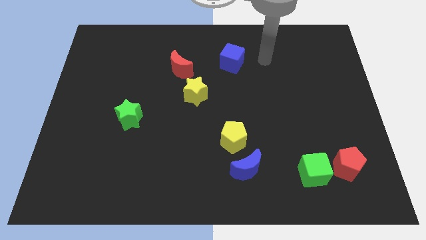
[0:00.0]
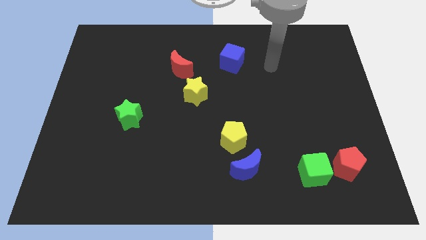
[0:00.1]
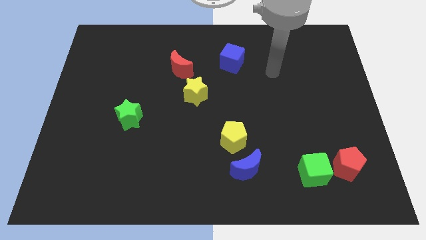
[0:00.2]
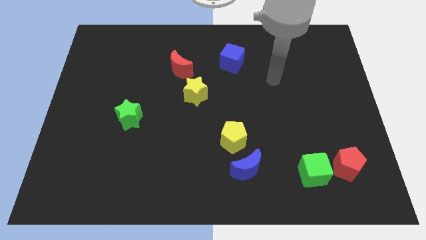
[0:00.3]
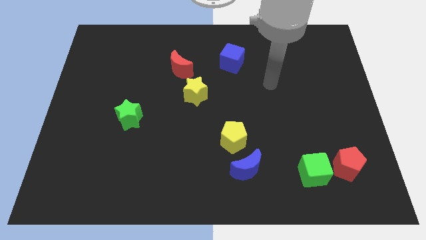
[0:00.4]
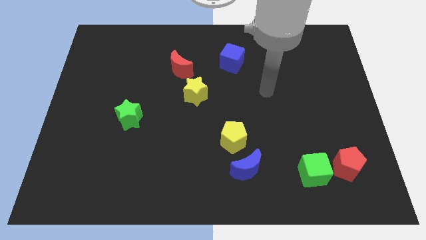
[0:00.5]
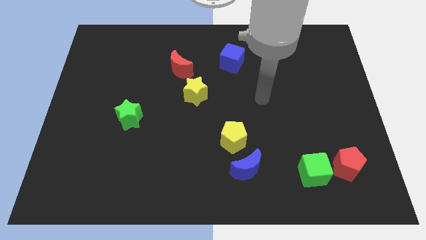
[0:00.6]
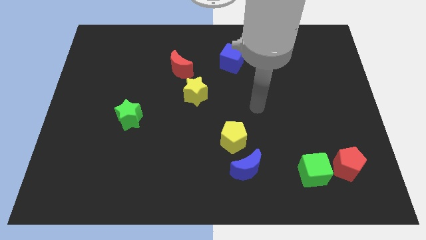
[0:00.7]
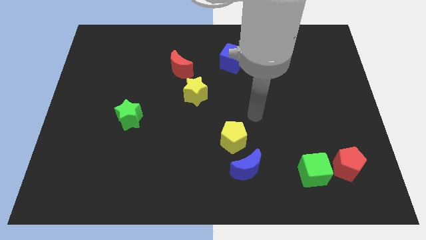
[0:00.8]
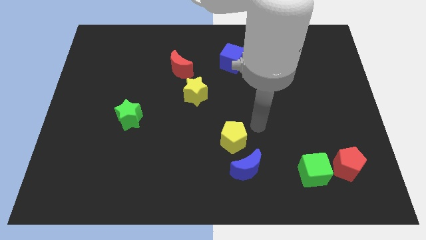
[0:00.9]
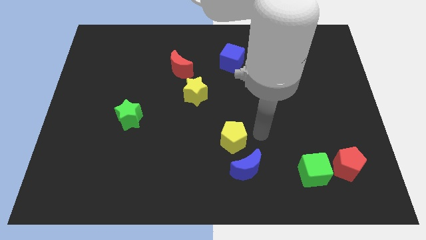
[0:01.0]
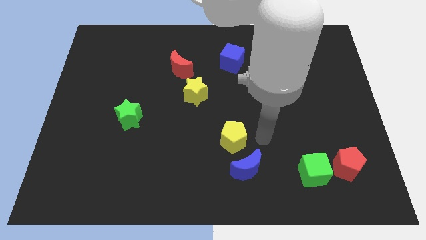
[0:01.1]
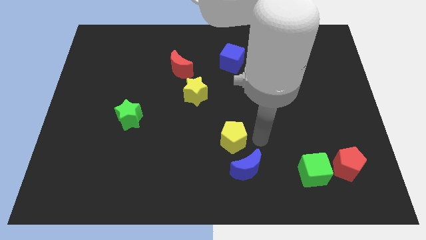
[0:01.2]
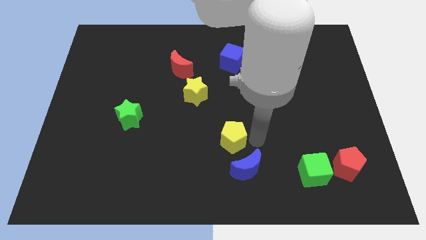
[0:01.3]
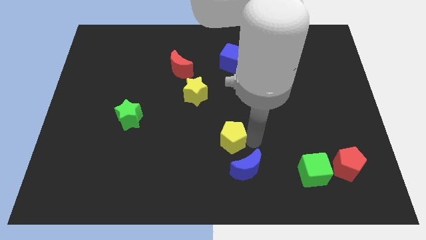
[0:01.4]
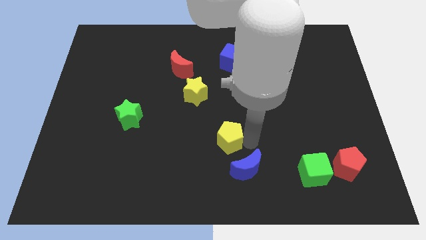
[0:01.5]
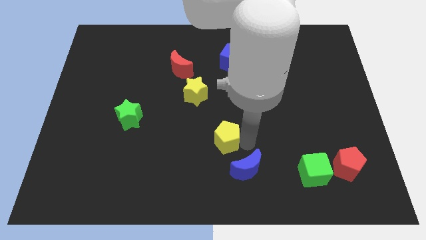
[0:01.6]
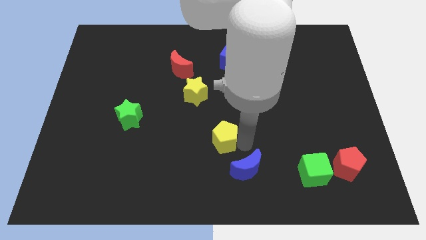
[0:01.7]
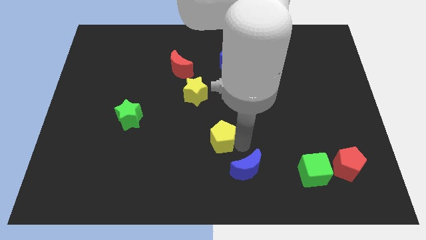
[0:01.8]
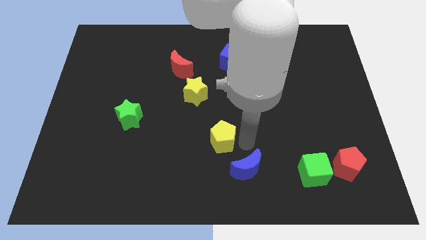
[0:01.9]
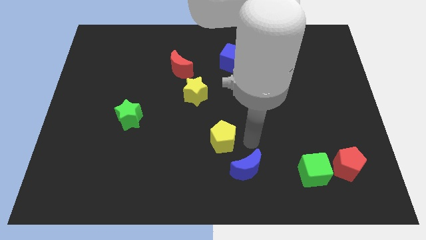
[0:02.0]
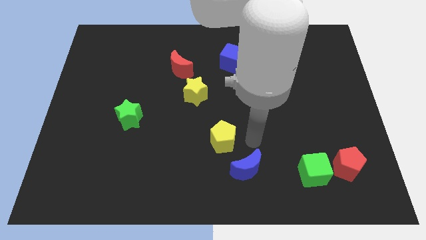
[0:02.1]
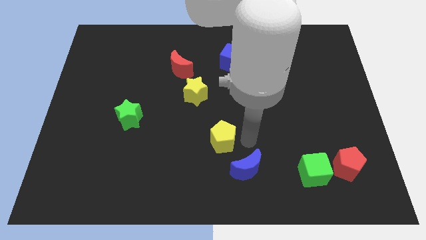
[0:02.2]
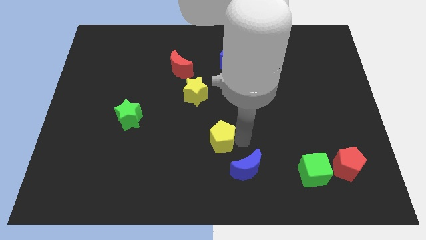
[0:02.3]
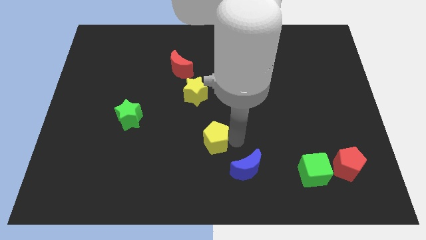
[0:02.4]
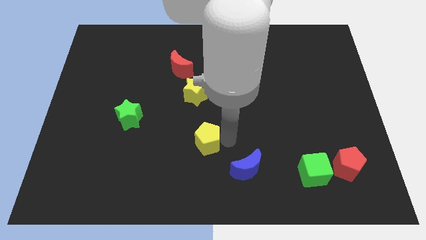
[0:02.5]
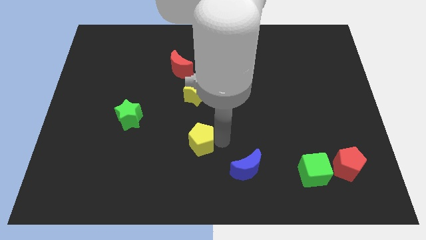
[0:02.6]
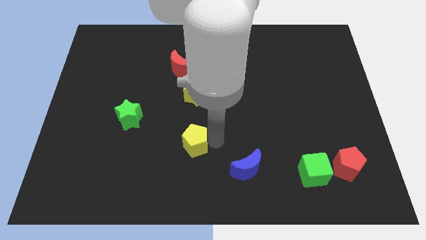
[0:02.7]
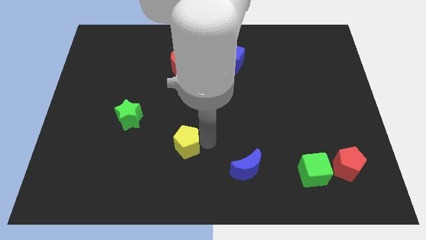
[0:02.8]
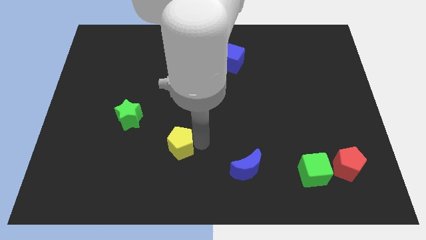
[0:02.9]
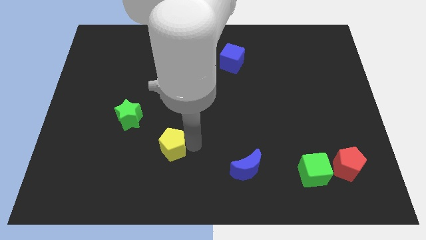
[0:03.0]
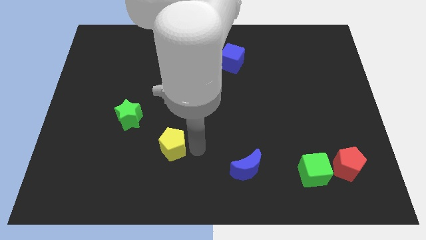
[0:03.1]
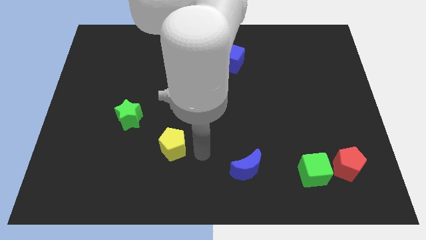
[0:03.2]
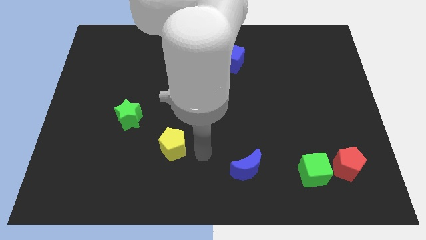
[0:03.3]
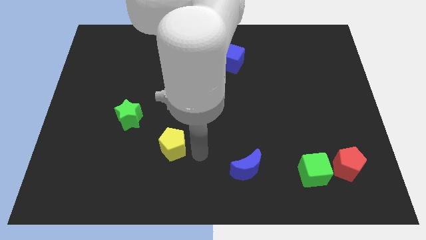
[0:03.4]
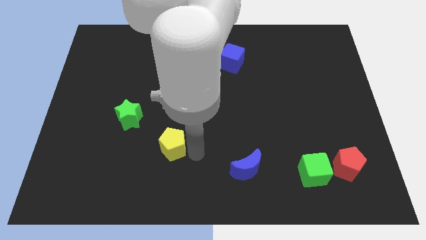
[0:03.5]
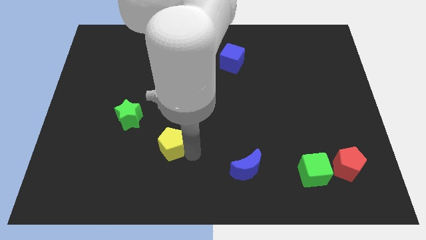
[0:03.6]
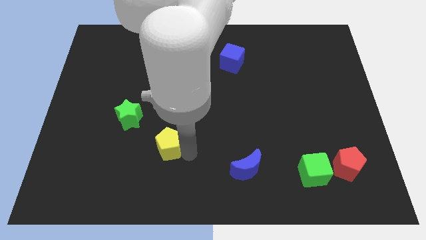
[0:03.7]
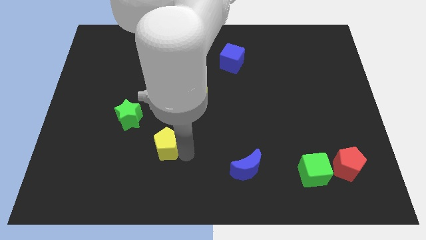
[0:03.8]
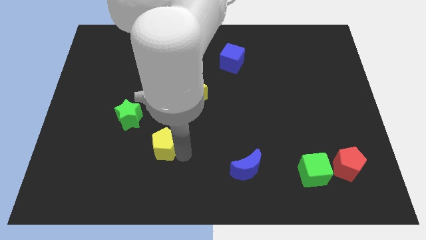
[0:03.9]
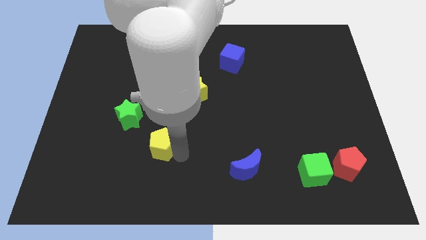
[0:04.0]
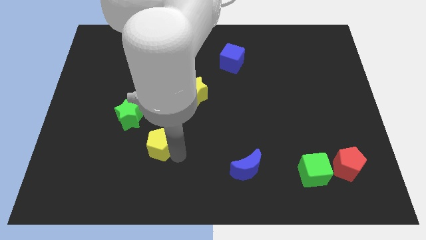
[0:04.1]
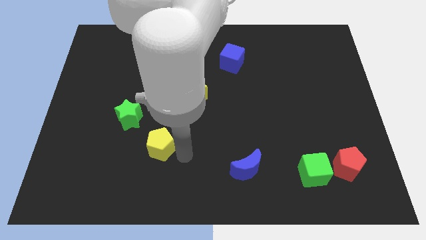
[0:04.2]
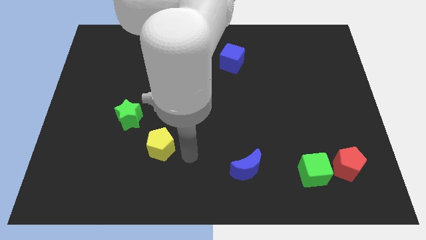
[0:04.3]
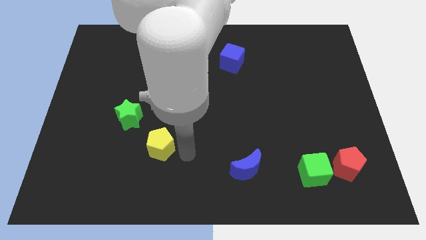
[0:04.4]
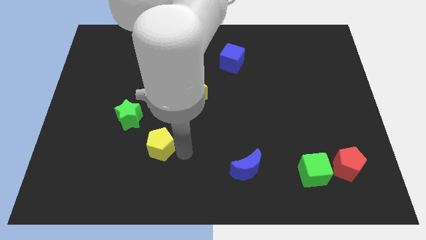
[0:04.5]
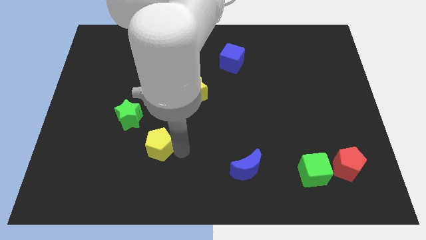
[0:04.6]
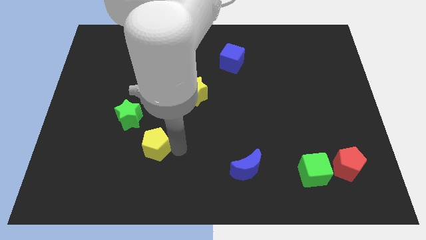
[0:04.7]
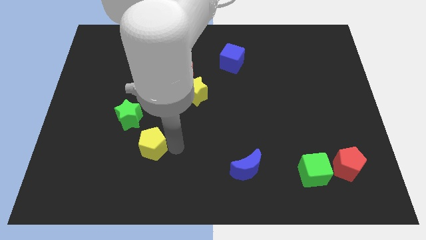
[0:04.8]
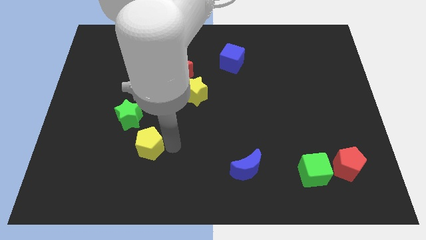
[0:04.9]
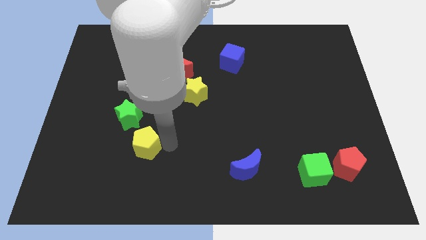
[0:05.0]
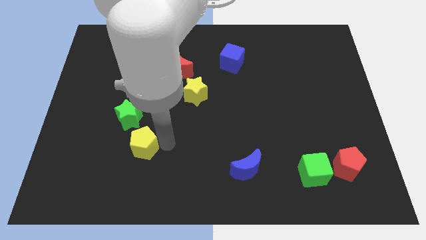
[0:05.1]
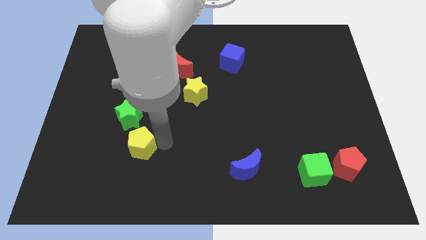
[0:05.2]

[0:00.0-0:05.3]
move the yellow pentagon to the left

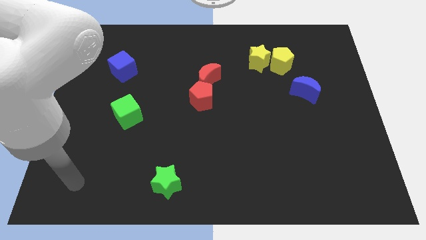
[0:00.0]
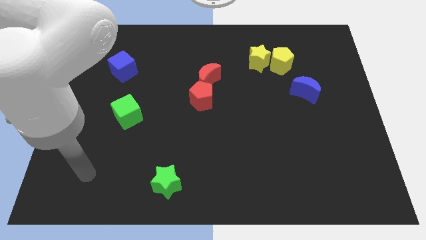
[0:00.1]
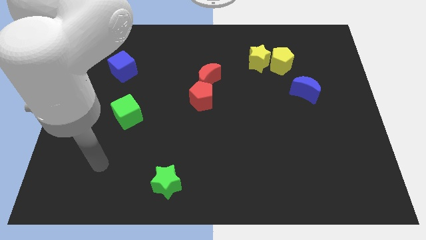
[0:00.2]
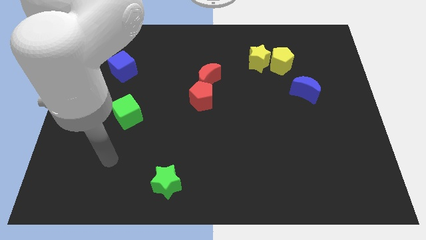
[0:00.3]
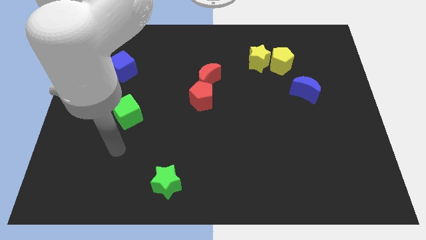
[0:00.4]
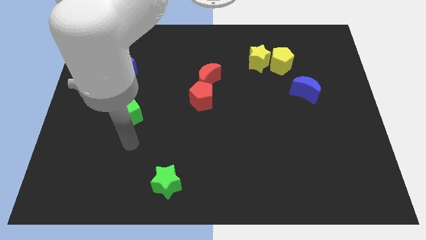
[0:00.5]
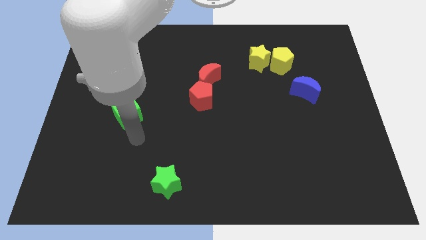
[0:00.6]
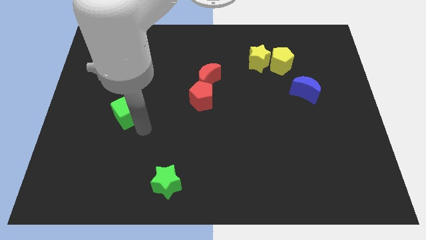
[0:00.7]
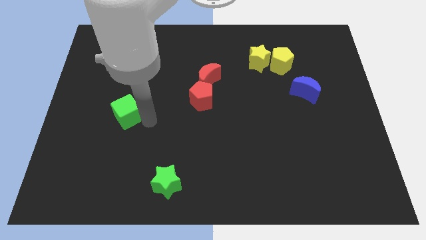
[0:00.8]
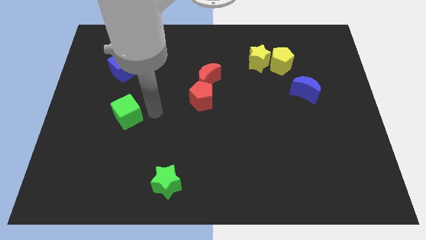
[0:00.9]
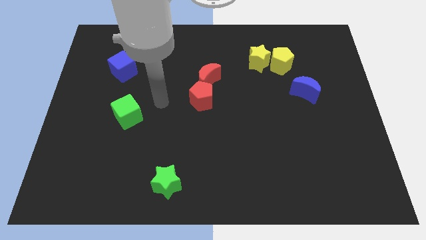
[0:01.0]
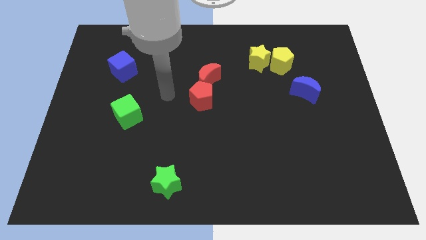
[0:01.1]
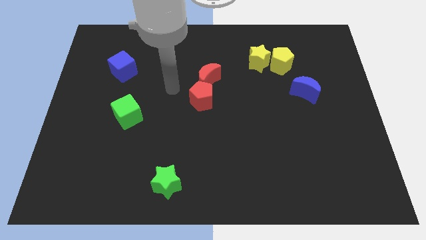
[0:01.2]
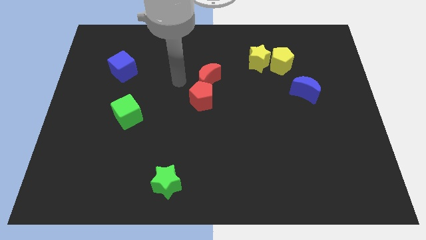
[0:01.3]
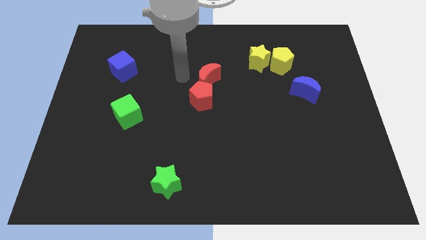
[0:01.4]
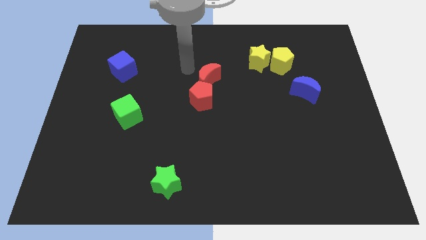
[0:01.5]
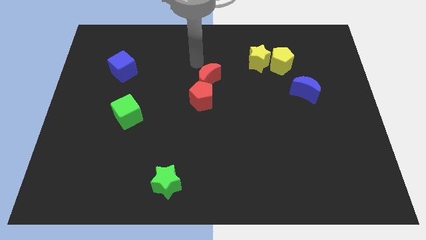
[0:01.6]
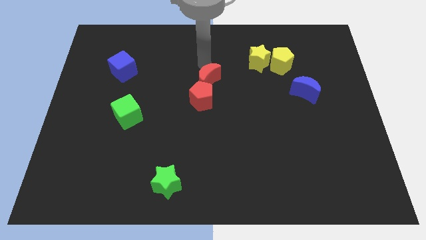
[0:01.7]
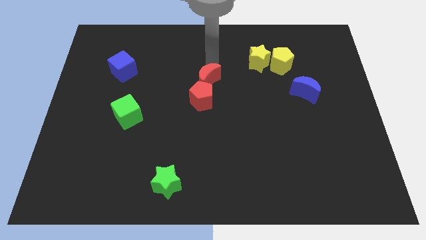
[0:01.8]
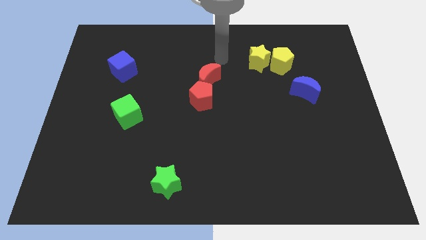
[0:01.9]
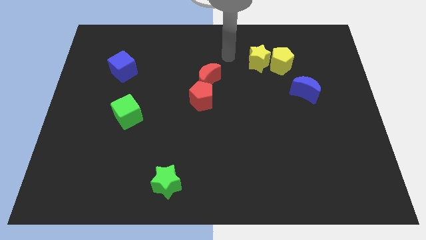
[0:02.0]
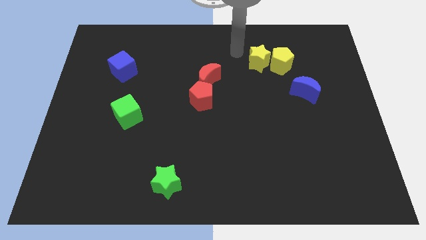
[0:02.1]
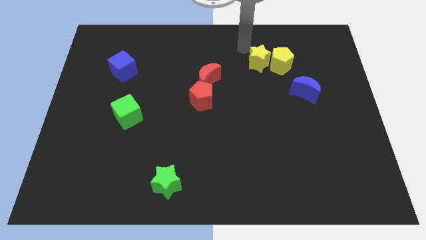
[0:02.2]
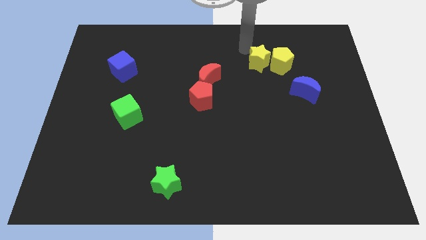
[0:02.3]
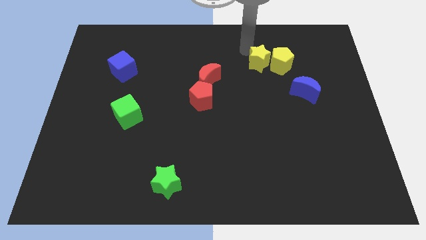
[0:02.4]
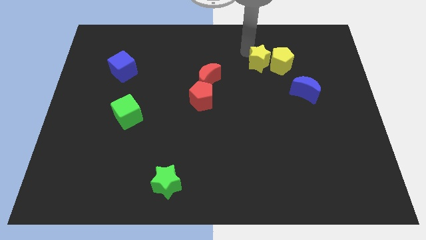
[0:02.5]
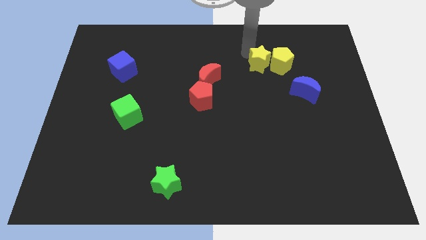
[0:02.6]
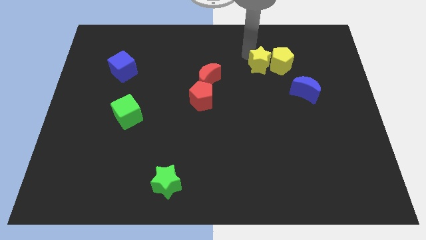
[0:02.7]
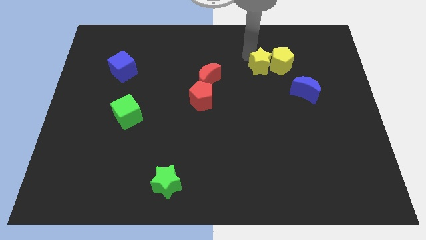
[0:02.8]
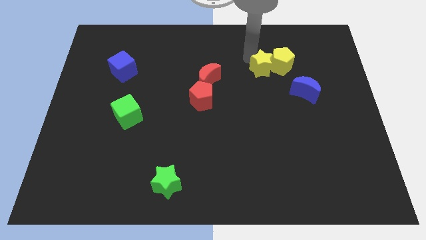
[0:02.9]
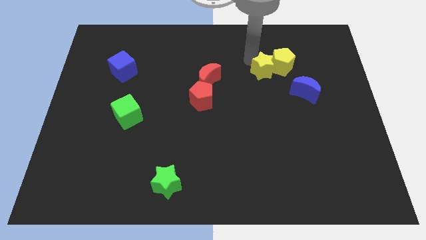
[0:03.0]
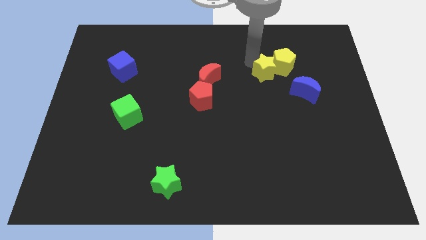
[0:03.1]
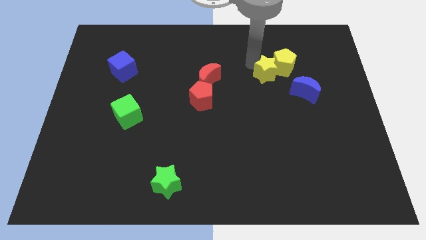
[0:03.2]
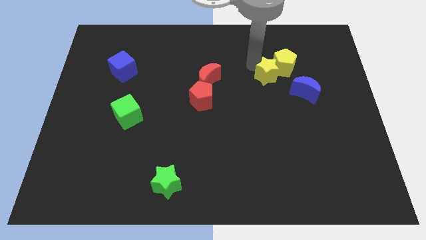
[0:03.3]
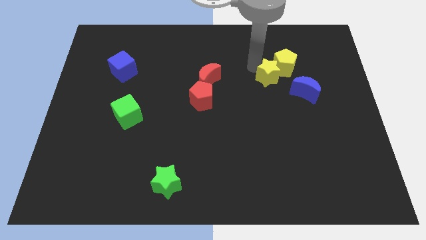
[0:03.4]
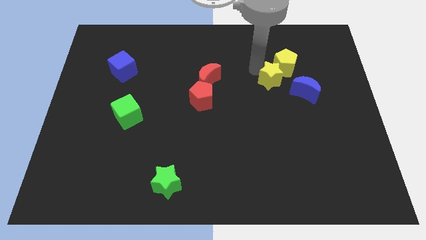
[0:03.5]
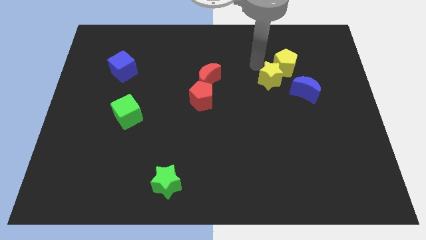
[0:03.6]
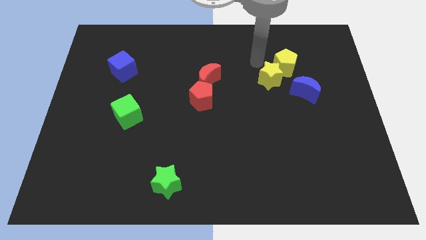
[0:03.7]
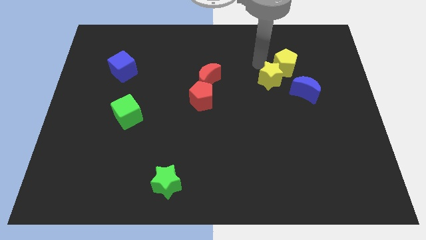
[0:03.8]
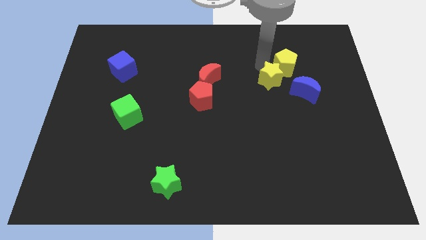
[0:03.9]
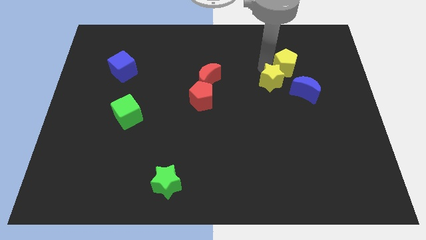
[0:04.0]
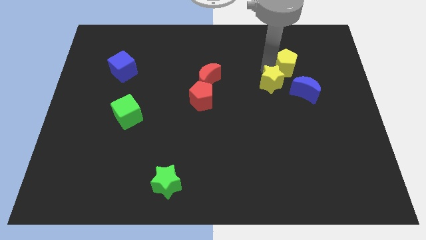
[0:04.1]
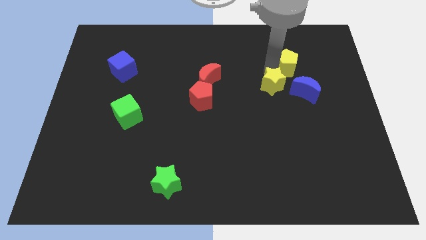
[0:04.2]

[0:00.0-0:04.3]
push the yellow star downwards and then to the right a little
